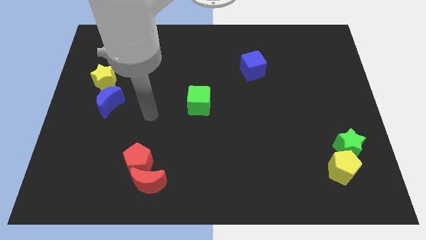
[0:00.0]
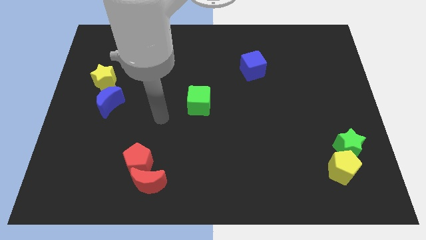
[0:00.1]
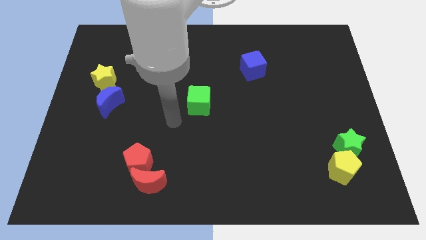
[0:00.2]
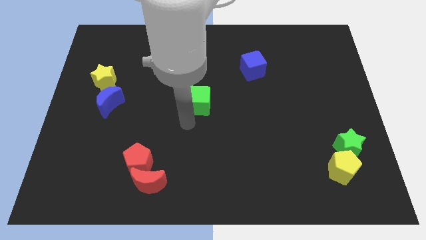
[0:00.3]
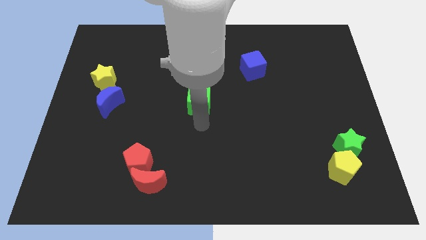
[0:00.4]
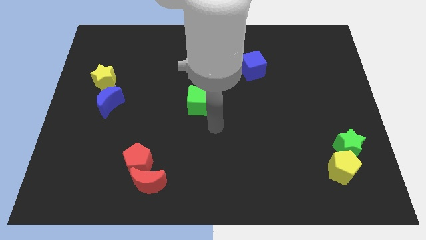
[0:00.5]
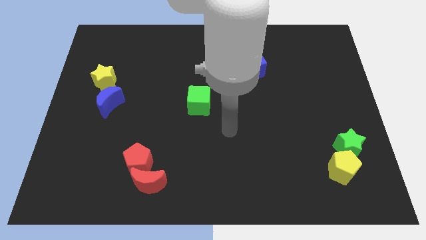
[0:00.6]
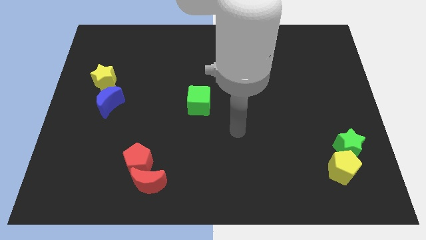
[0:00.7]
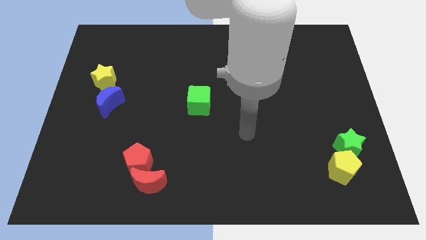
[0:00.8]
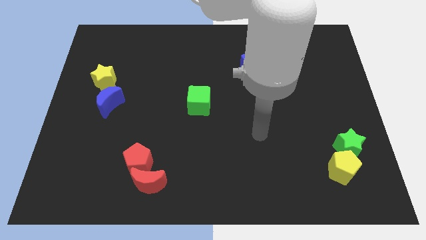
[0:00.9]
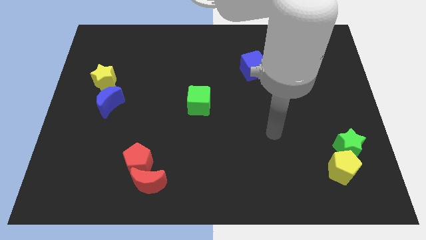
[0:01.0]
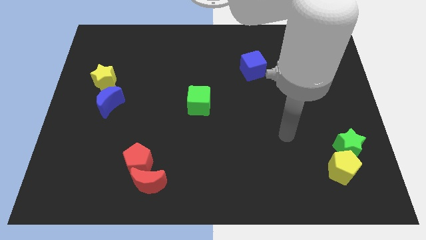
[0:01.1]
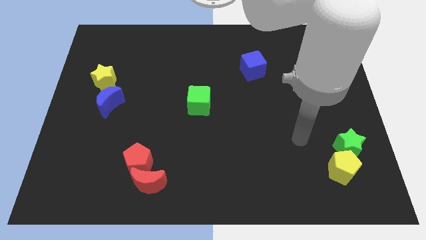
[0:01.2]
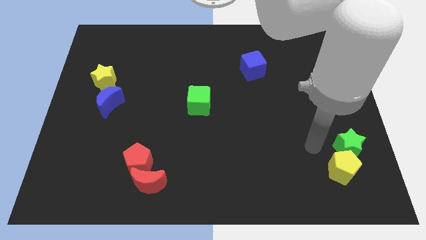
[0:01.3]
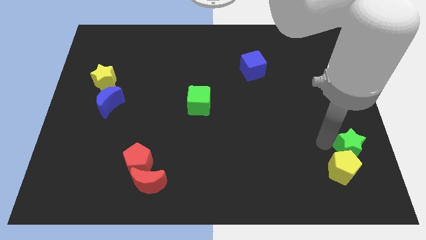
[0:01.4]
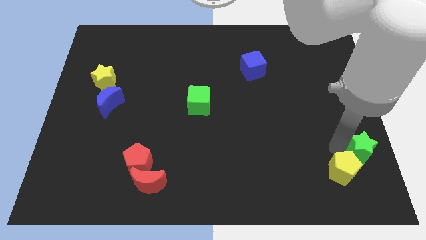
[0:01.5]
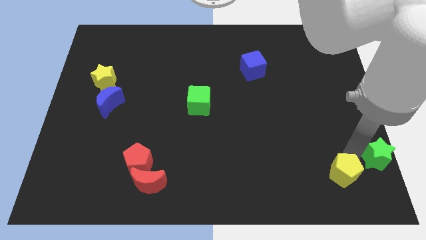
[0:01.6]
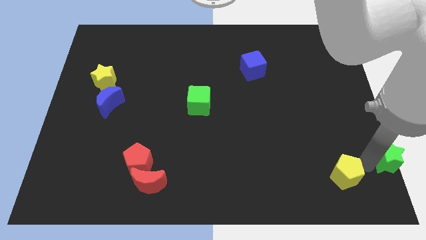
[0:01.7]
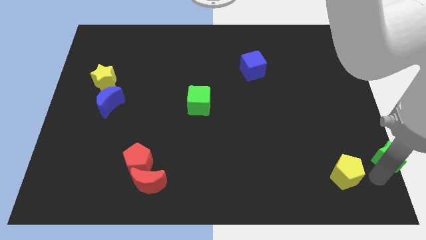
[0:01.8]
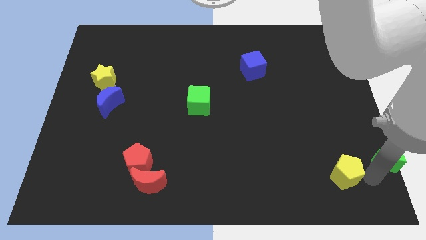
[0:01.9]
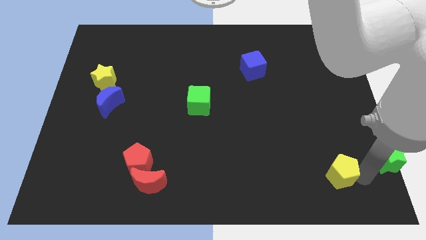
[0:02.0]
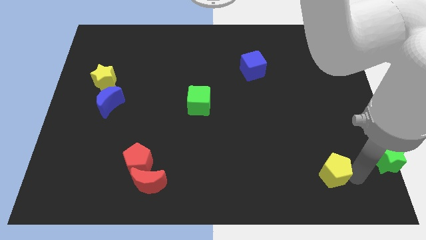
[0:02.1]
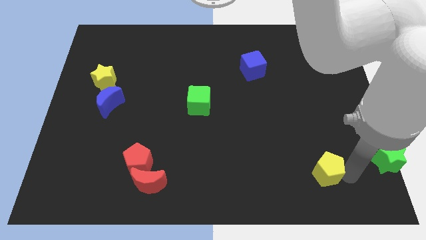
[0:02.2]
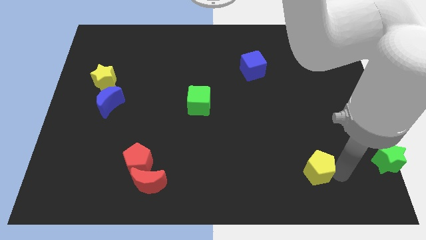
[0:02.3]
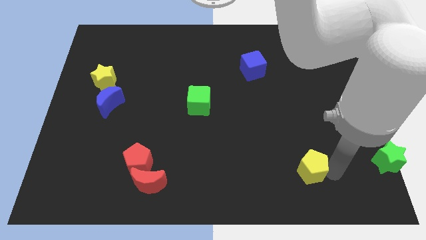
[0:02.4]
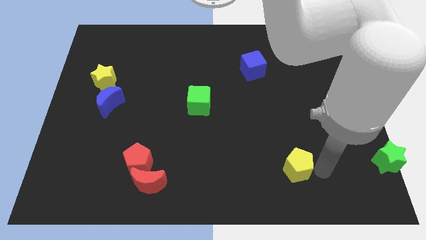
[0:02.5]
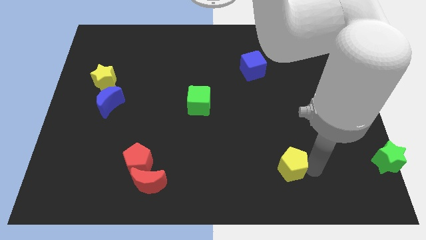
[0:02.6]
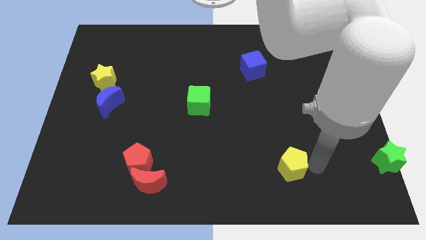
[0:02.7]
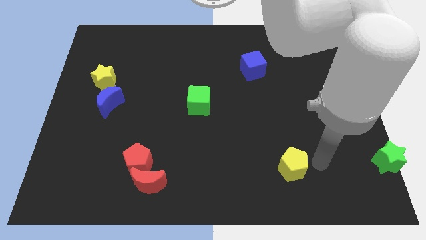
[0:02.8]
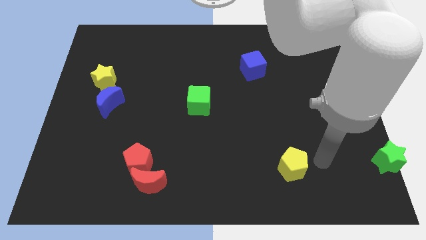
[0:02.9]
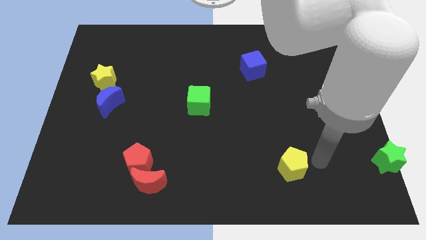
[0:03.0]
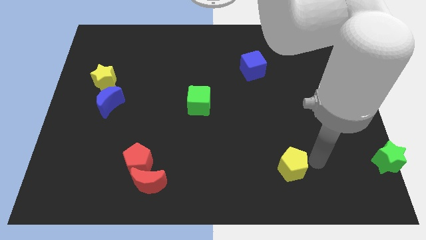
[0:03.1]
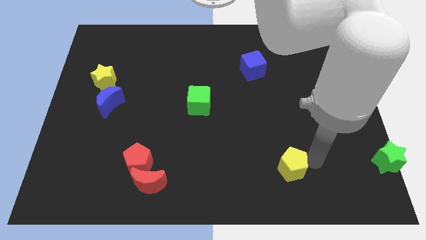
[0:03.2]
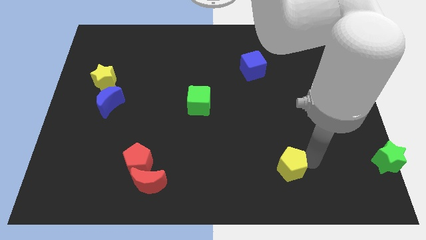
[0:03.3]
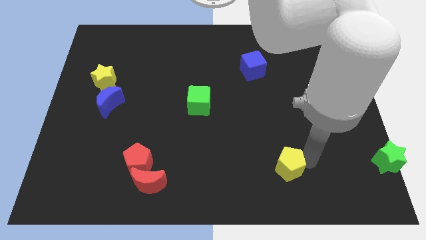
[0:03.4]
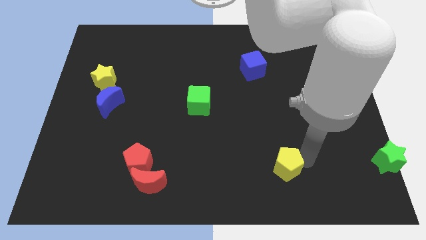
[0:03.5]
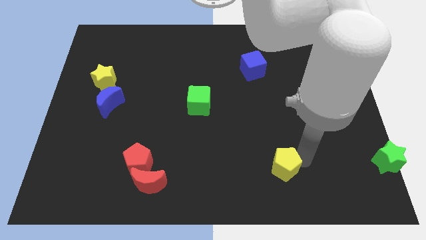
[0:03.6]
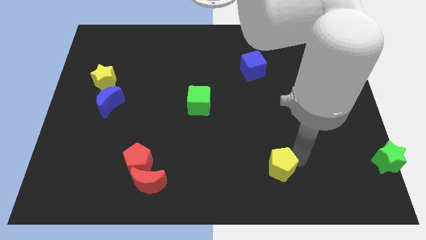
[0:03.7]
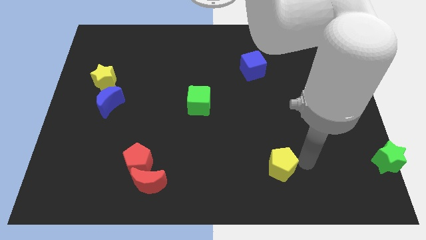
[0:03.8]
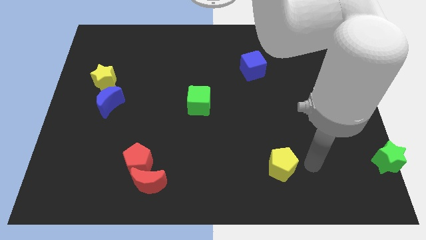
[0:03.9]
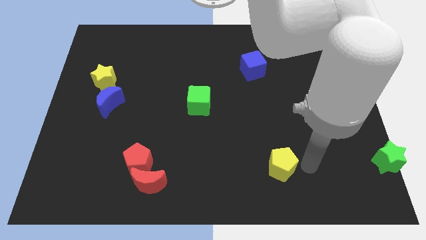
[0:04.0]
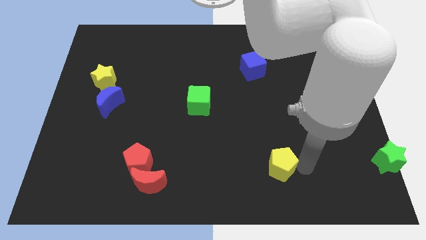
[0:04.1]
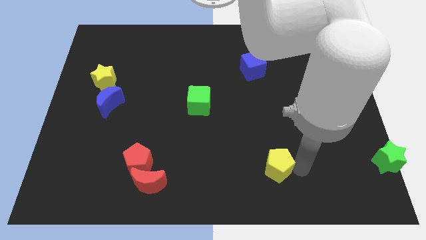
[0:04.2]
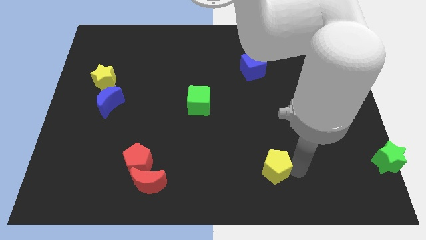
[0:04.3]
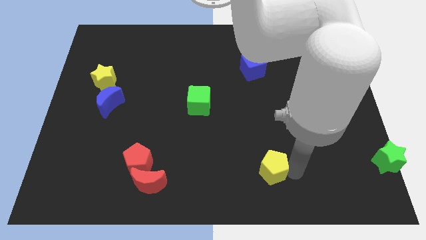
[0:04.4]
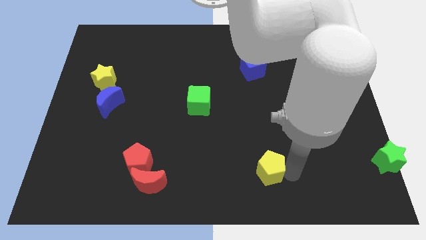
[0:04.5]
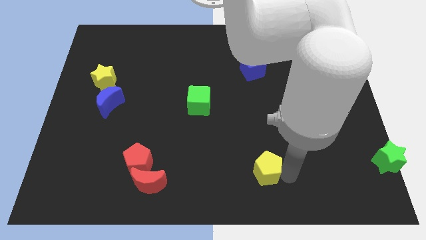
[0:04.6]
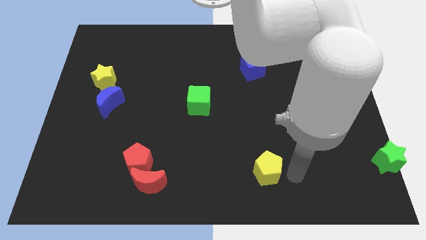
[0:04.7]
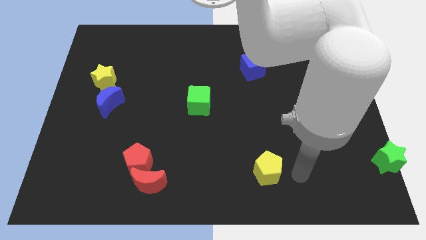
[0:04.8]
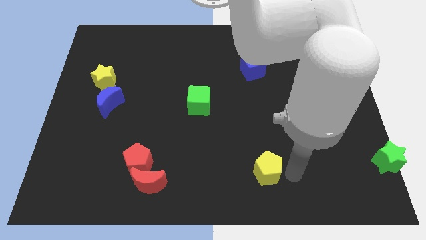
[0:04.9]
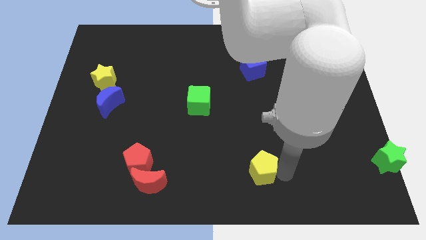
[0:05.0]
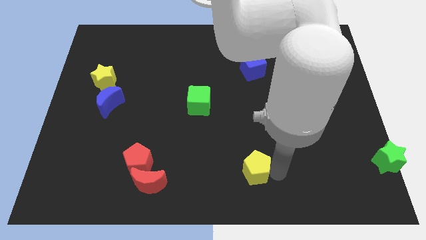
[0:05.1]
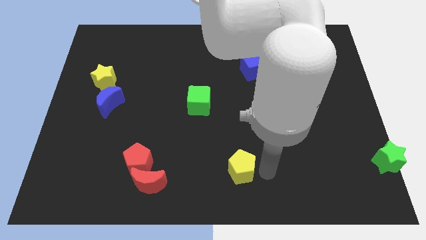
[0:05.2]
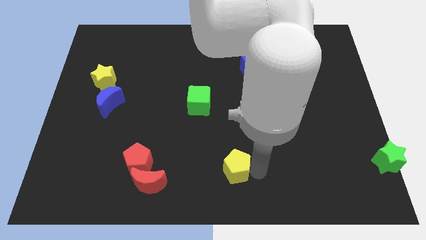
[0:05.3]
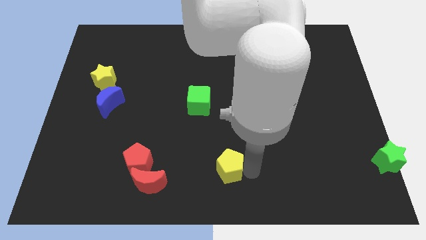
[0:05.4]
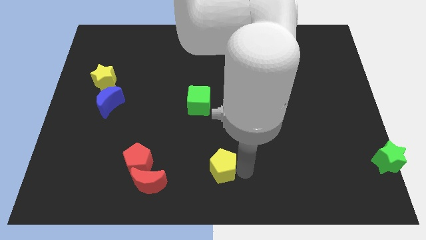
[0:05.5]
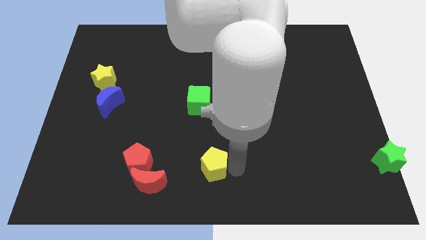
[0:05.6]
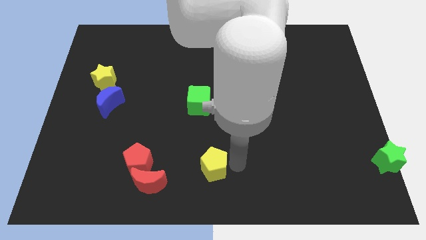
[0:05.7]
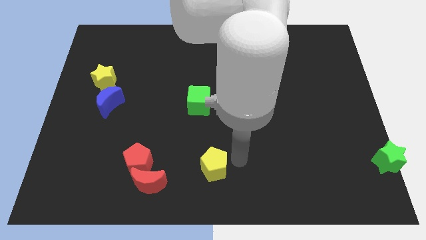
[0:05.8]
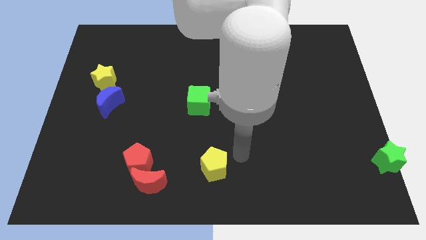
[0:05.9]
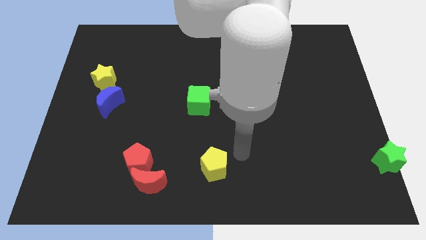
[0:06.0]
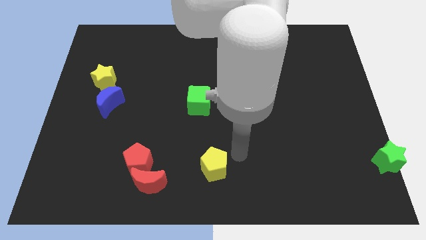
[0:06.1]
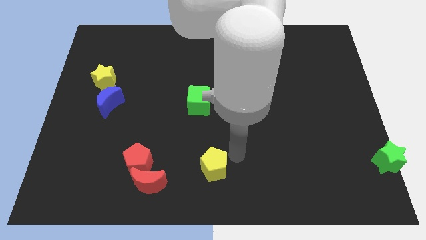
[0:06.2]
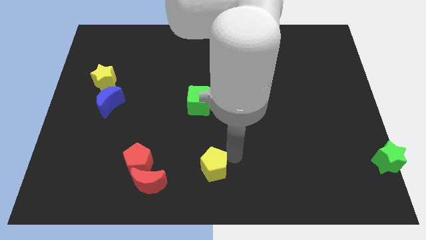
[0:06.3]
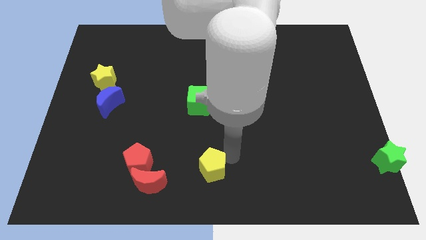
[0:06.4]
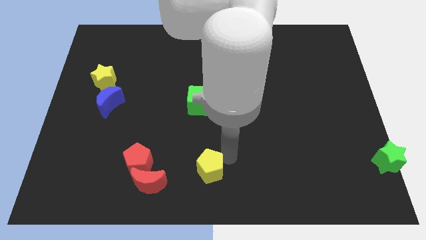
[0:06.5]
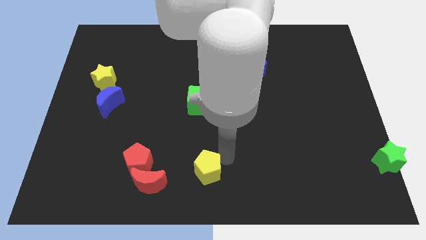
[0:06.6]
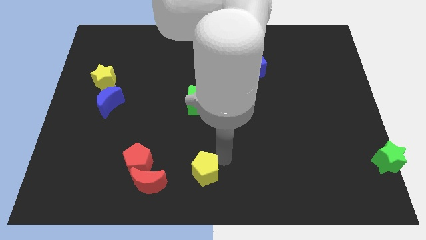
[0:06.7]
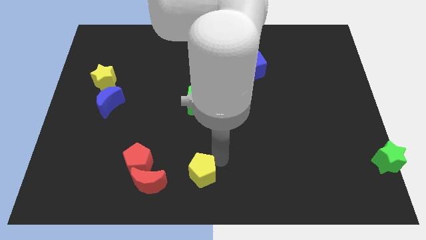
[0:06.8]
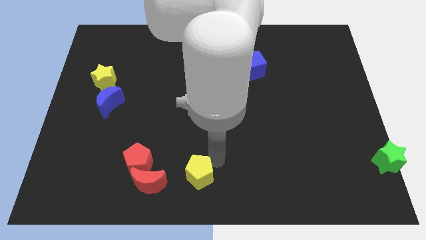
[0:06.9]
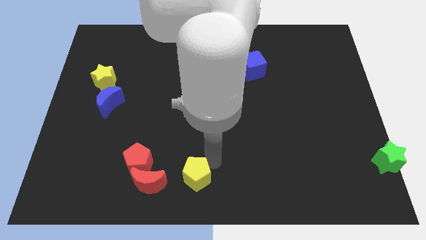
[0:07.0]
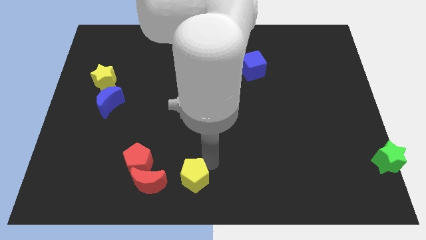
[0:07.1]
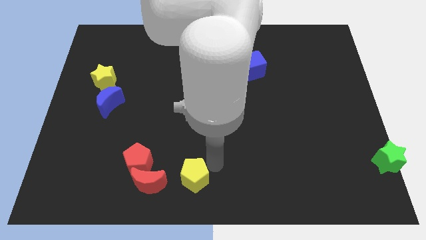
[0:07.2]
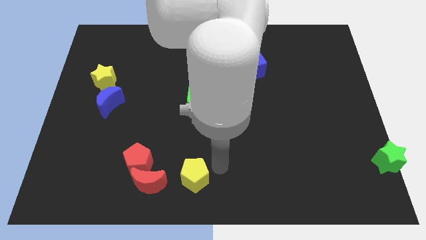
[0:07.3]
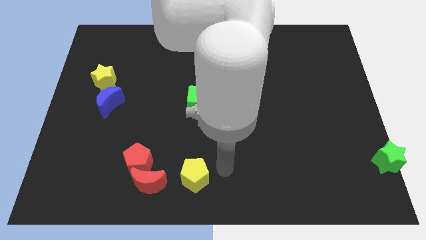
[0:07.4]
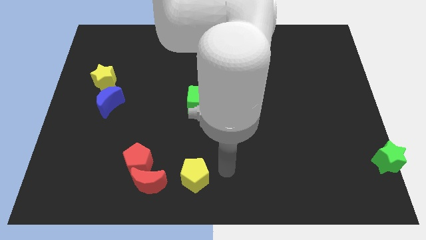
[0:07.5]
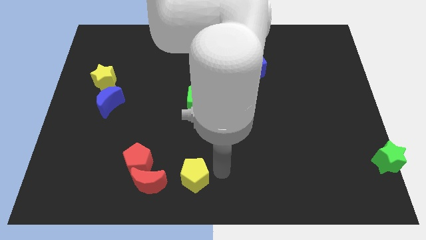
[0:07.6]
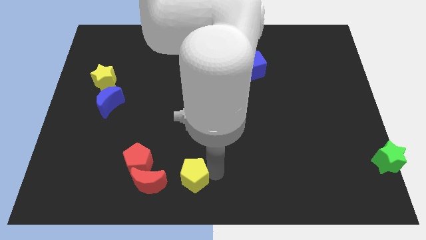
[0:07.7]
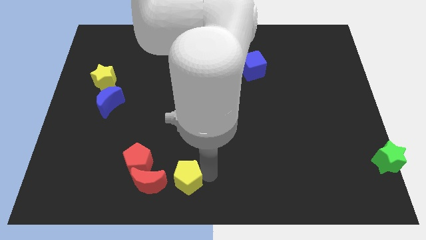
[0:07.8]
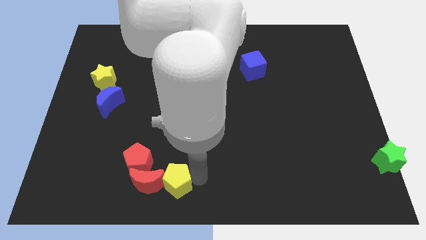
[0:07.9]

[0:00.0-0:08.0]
move the yellow pentagon to the red moon
